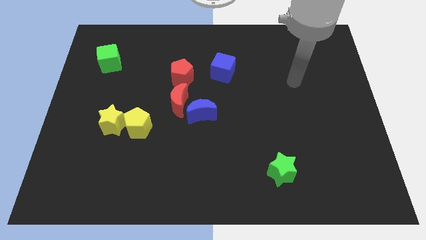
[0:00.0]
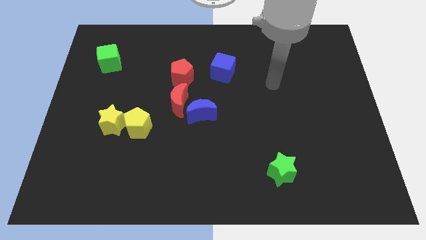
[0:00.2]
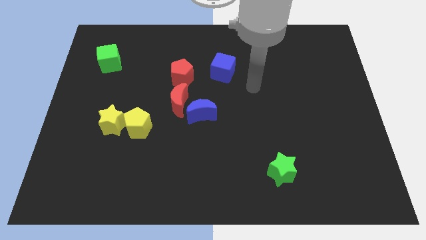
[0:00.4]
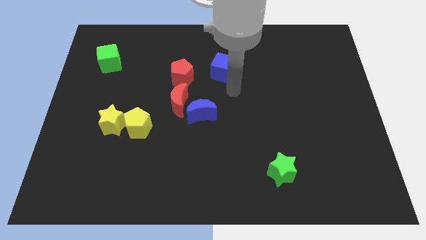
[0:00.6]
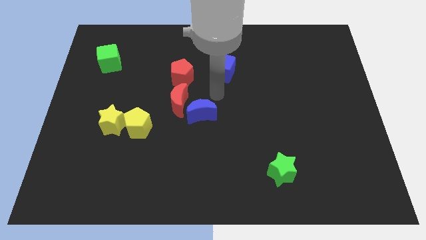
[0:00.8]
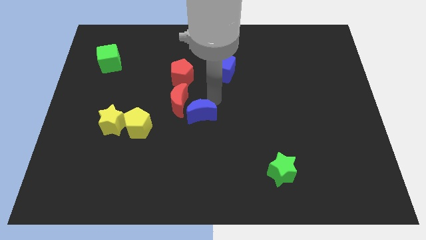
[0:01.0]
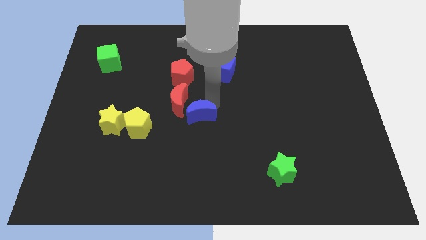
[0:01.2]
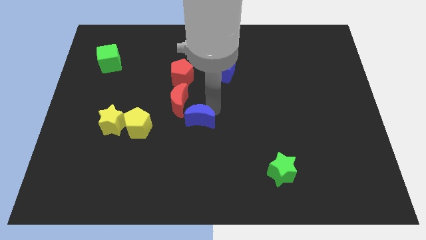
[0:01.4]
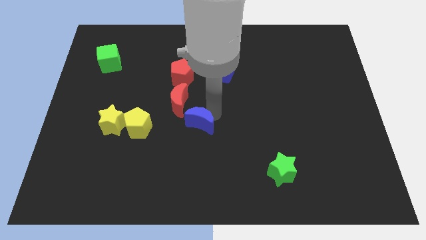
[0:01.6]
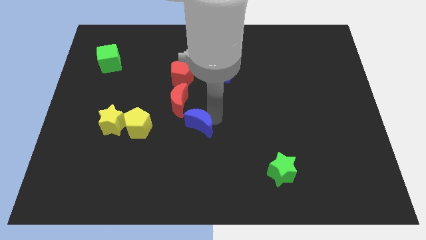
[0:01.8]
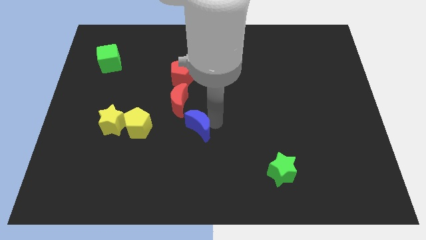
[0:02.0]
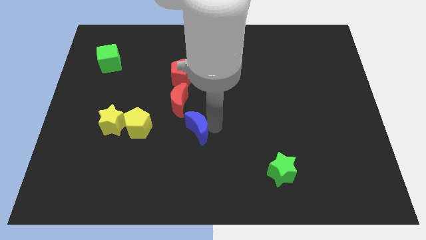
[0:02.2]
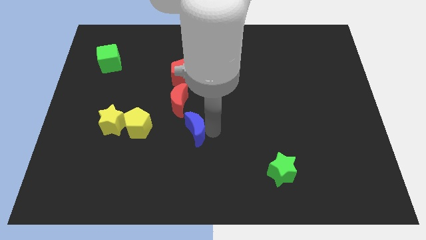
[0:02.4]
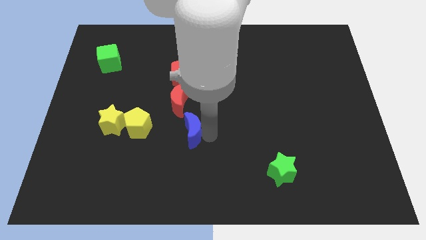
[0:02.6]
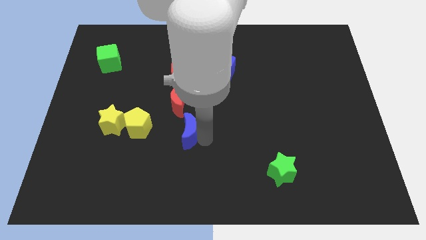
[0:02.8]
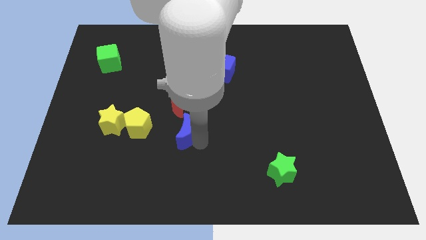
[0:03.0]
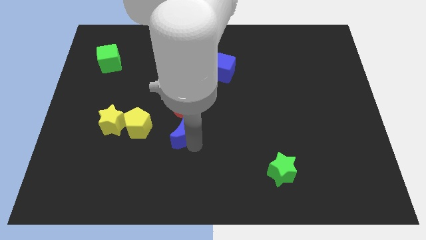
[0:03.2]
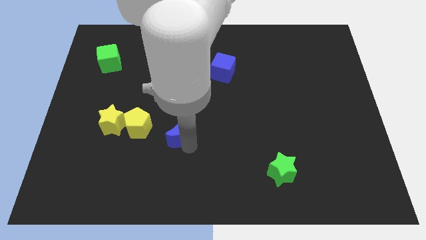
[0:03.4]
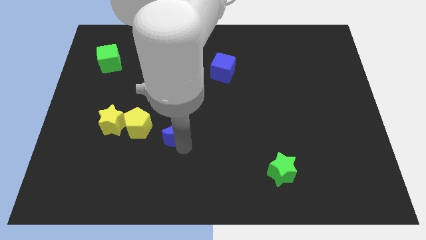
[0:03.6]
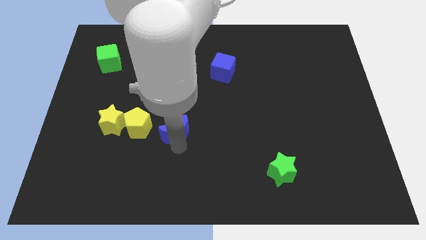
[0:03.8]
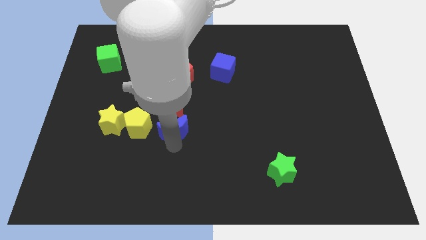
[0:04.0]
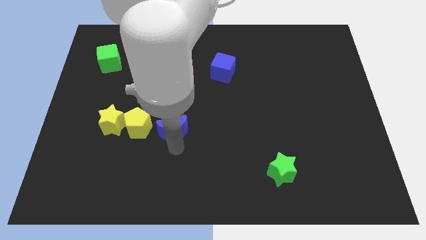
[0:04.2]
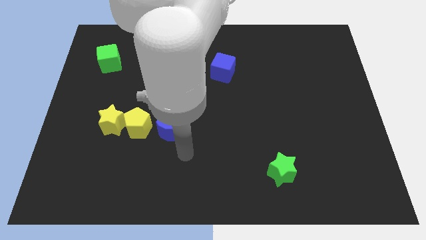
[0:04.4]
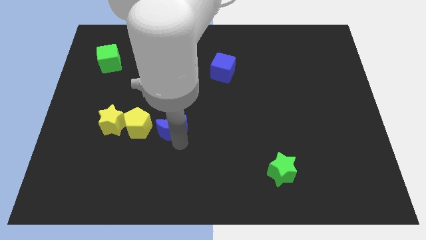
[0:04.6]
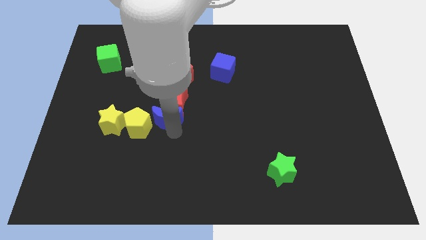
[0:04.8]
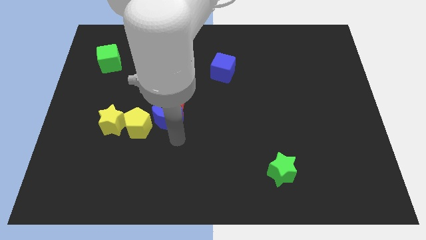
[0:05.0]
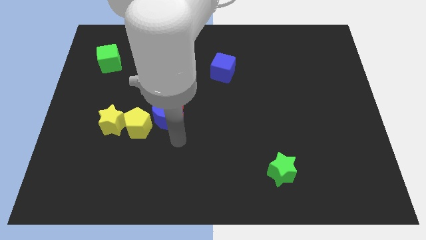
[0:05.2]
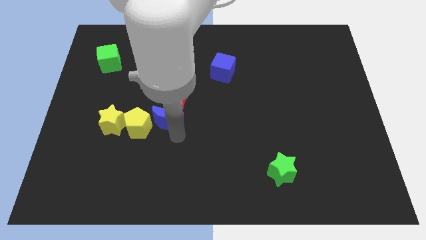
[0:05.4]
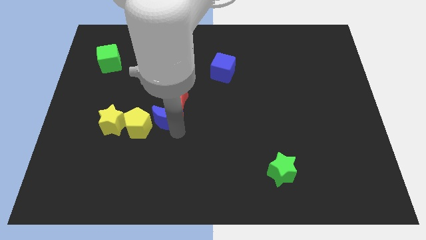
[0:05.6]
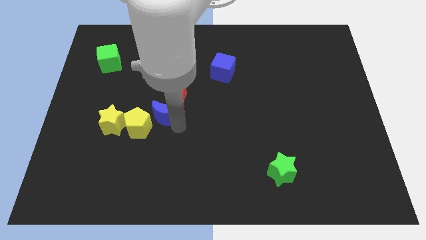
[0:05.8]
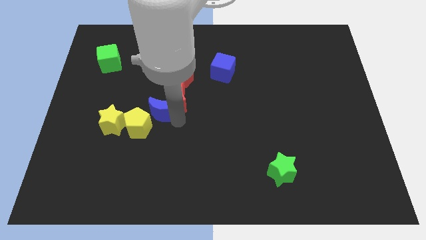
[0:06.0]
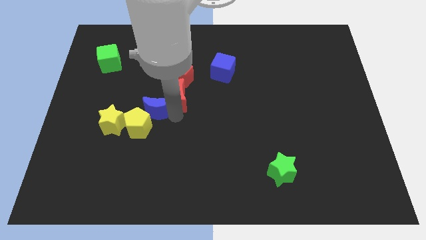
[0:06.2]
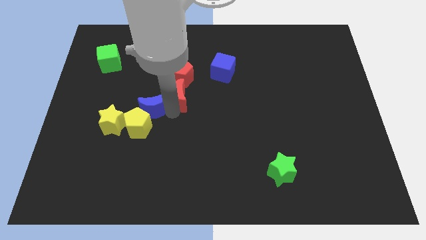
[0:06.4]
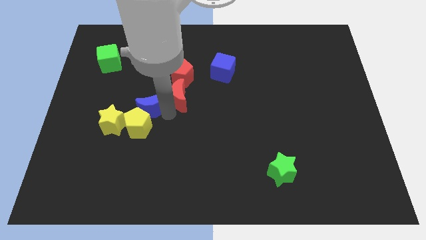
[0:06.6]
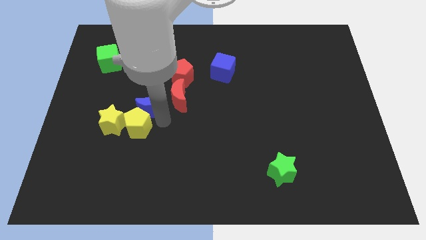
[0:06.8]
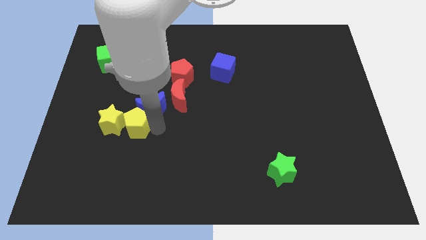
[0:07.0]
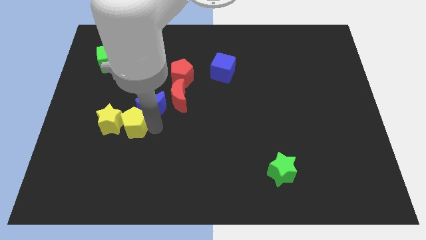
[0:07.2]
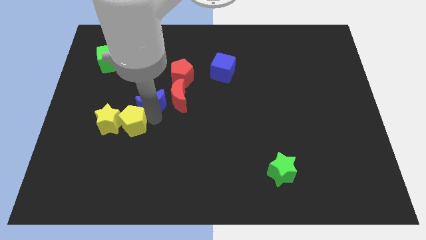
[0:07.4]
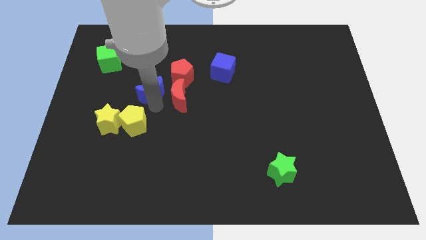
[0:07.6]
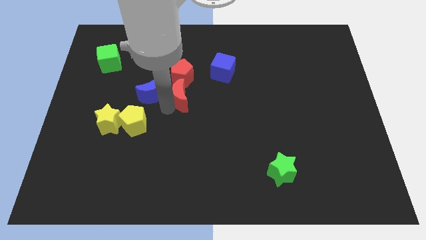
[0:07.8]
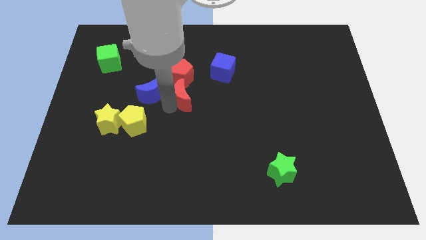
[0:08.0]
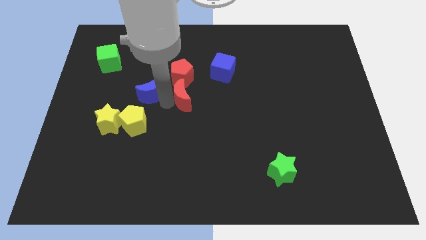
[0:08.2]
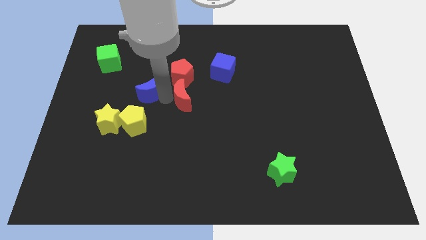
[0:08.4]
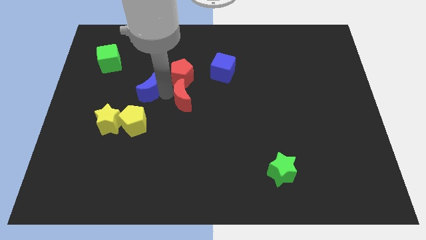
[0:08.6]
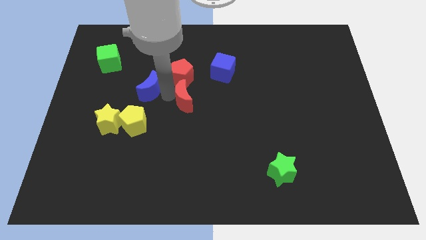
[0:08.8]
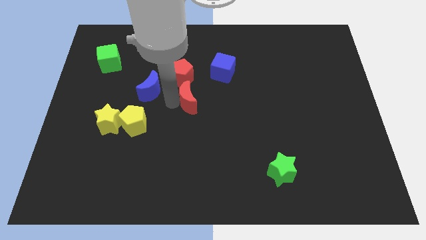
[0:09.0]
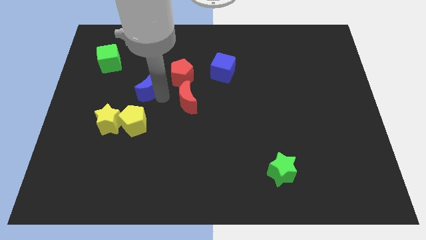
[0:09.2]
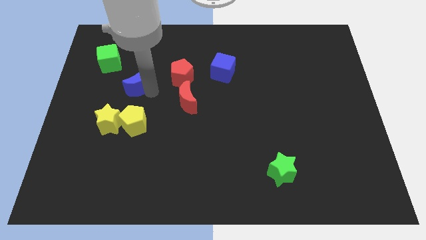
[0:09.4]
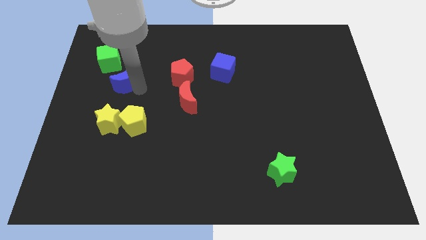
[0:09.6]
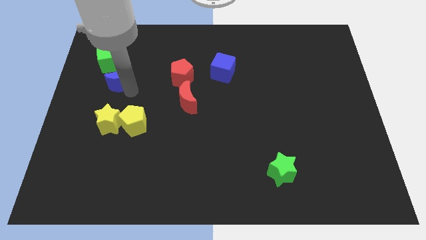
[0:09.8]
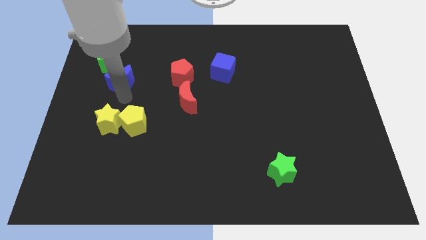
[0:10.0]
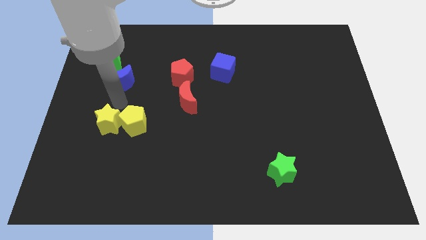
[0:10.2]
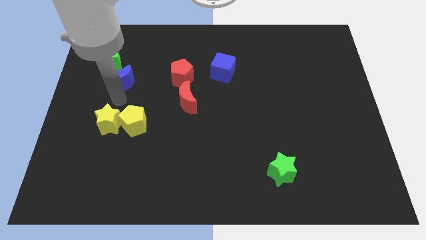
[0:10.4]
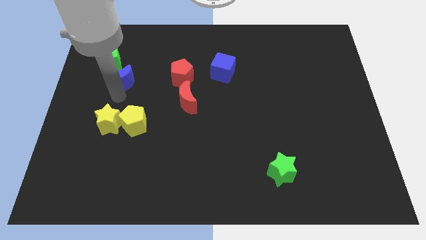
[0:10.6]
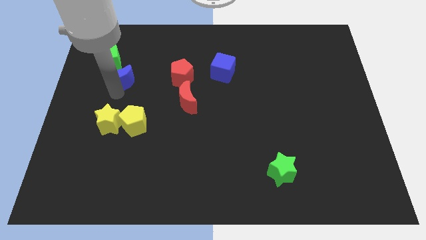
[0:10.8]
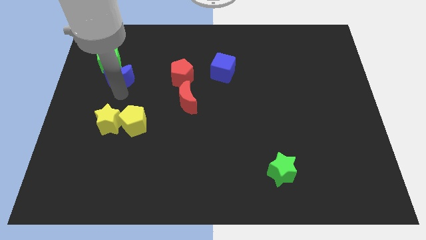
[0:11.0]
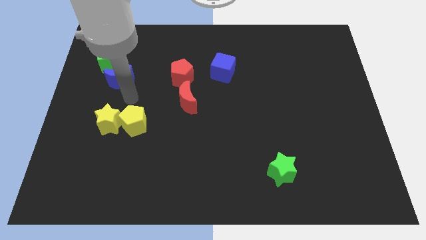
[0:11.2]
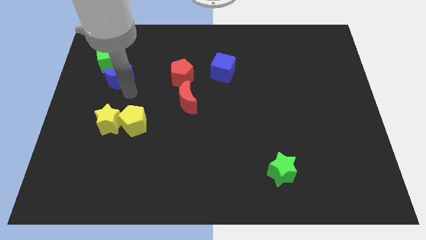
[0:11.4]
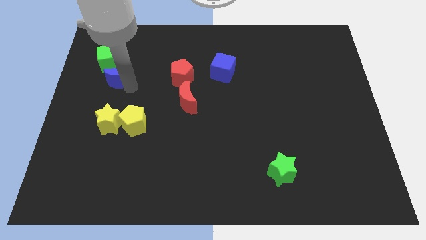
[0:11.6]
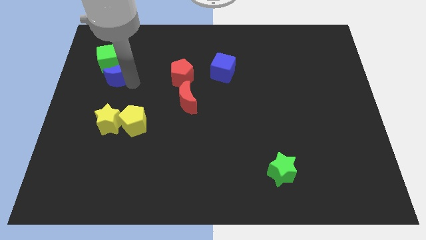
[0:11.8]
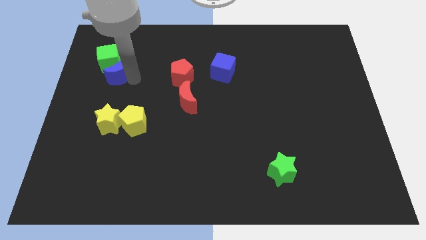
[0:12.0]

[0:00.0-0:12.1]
put the blue moon close to the green cube
